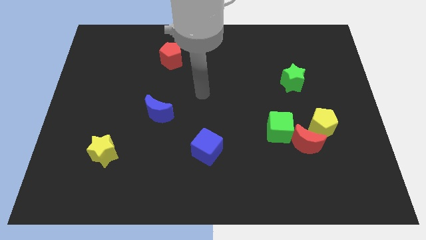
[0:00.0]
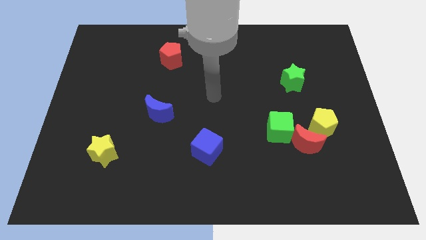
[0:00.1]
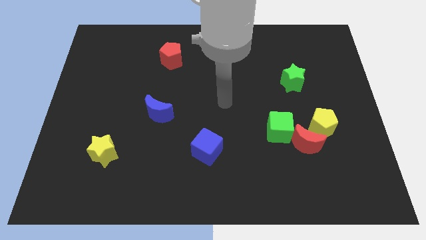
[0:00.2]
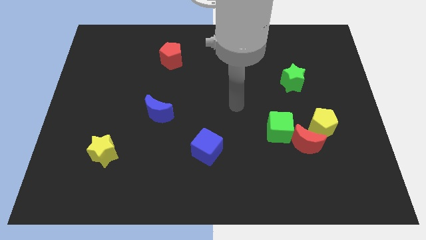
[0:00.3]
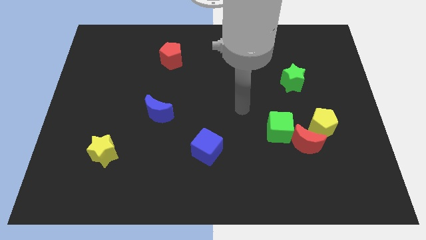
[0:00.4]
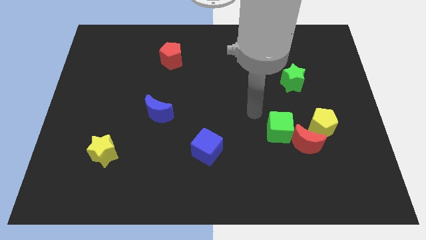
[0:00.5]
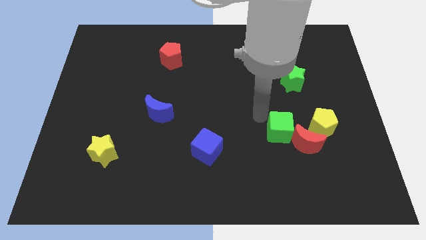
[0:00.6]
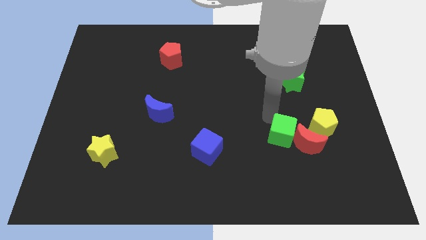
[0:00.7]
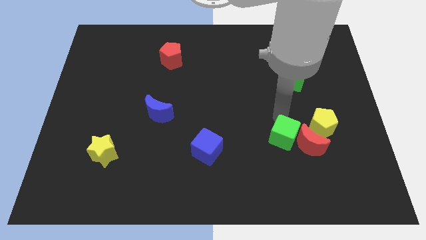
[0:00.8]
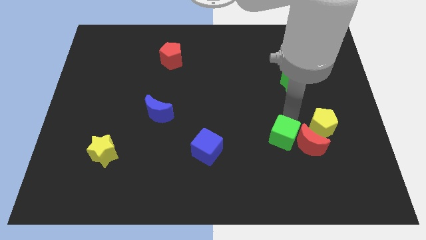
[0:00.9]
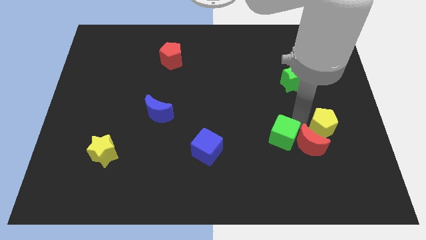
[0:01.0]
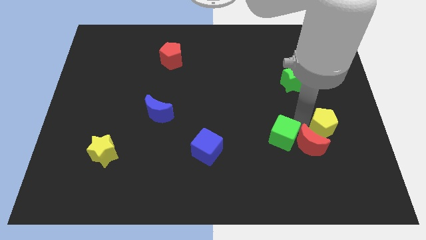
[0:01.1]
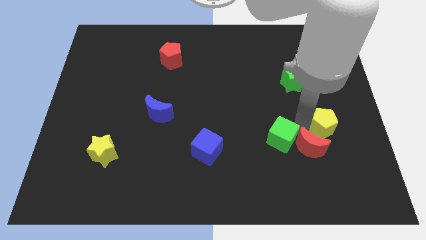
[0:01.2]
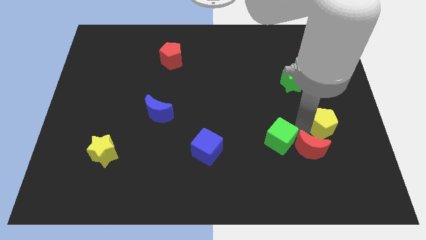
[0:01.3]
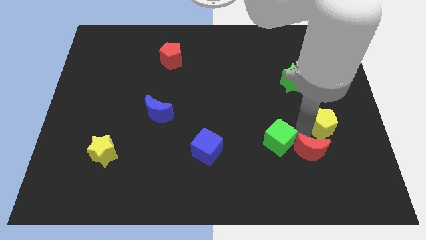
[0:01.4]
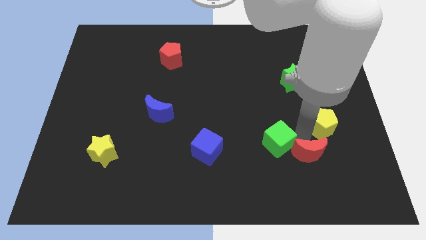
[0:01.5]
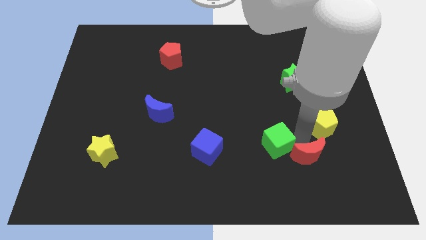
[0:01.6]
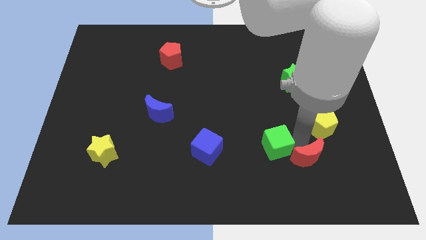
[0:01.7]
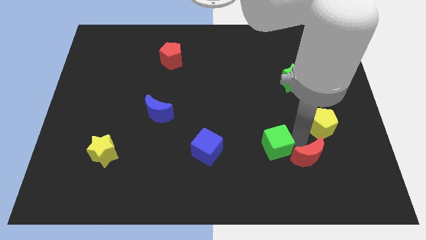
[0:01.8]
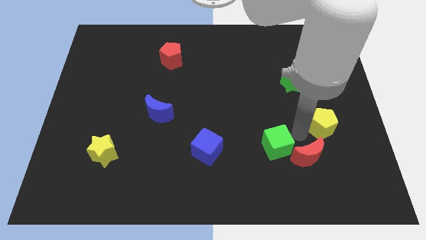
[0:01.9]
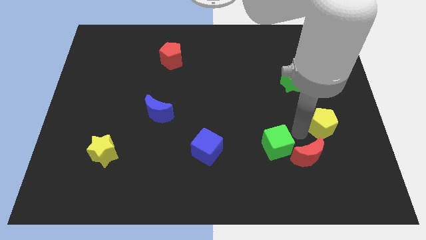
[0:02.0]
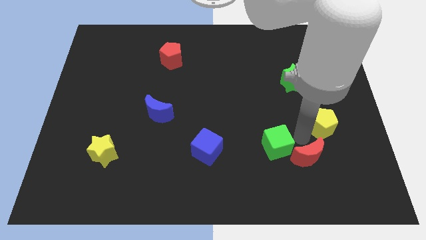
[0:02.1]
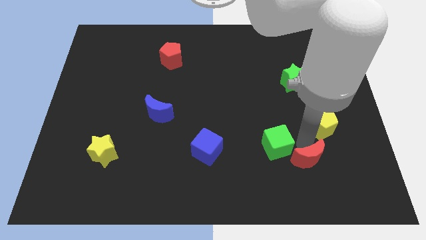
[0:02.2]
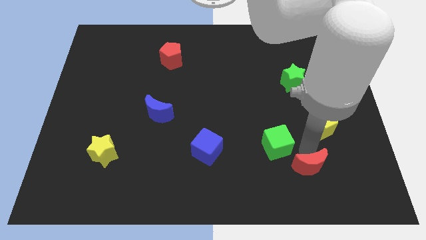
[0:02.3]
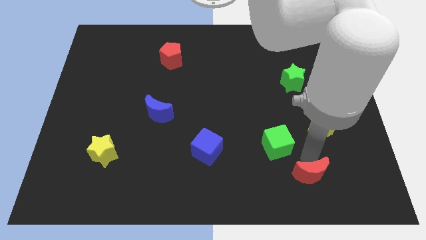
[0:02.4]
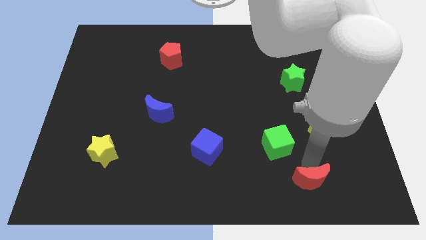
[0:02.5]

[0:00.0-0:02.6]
separate the red moon from the yellow pentagon and green cube

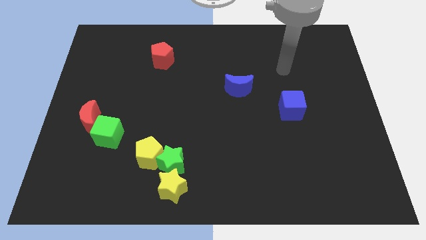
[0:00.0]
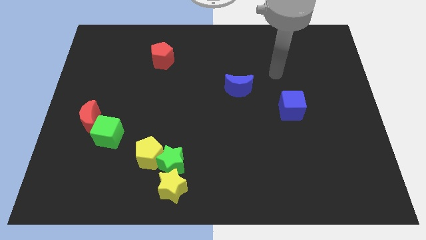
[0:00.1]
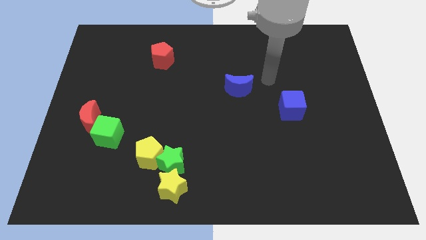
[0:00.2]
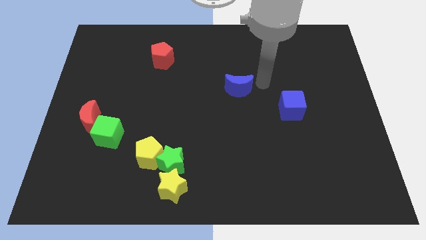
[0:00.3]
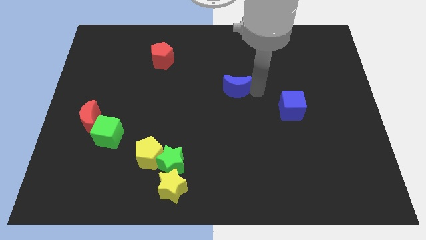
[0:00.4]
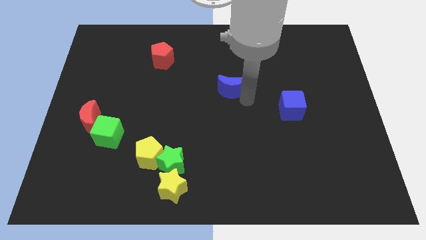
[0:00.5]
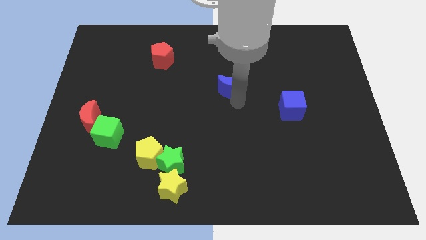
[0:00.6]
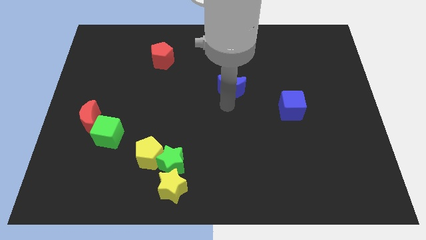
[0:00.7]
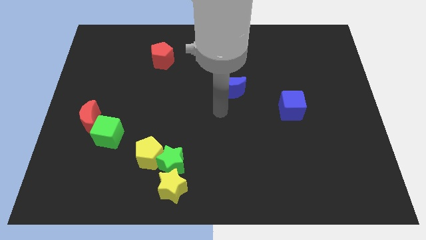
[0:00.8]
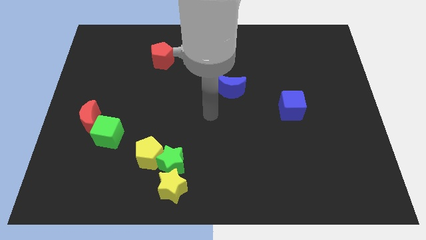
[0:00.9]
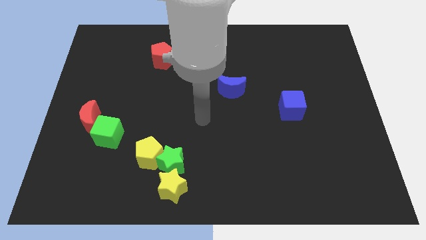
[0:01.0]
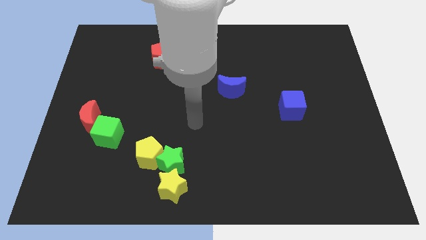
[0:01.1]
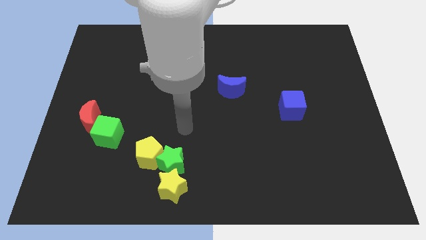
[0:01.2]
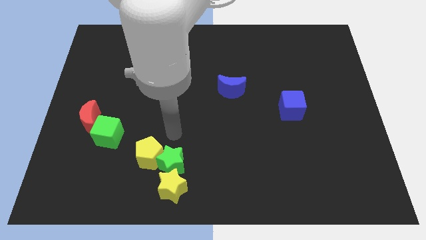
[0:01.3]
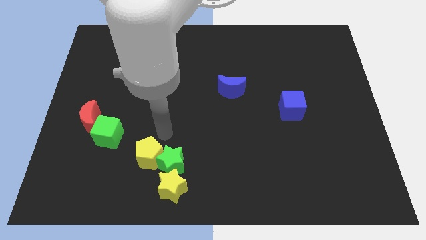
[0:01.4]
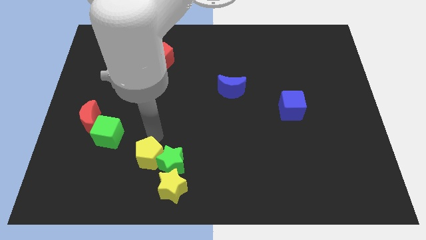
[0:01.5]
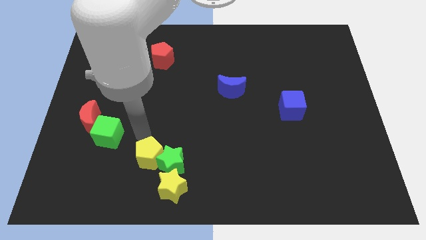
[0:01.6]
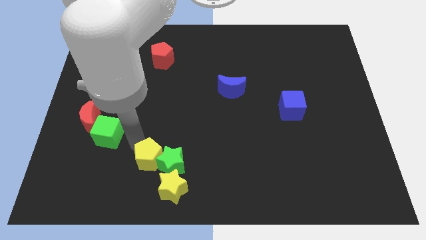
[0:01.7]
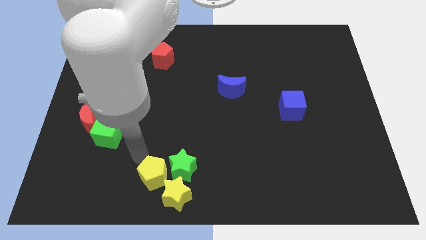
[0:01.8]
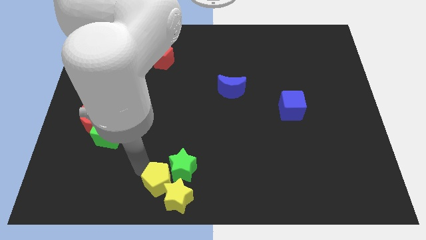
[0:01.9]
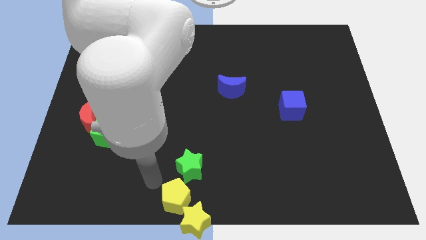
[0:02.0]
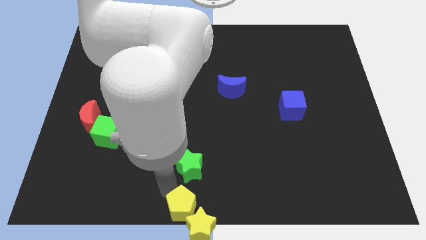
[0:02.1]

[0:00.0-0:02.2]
separate the green star from the yellow pentagon and yellow star

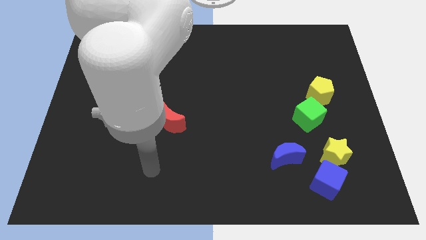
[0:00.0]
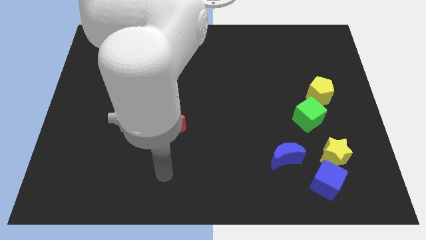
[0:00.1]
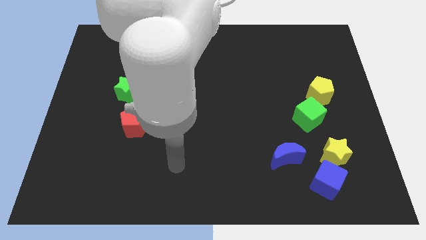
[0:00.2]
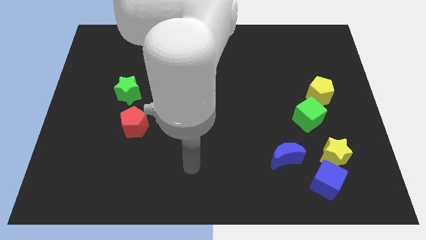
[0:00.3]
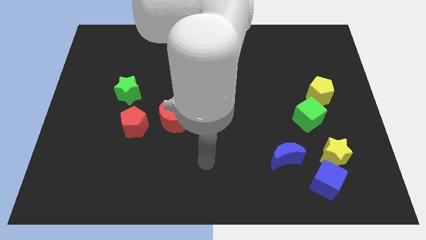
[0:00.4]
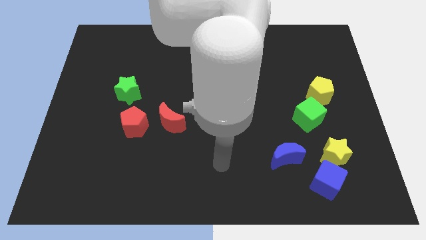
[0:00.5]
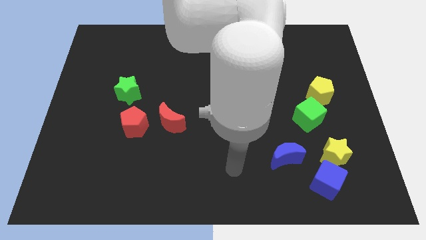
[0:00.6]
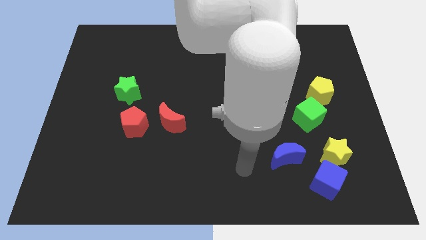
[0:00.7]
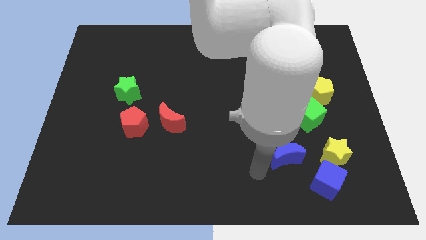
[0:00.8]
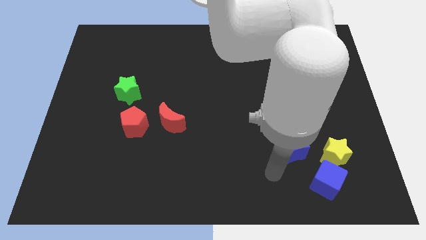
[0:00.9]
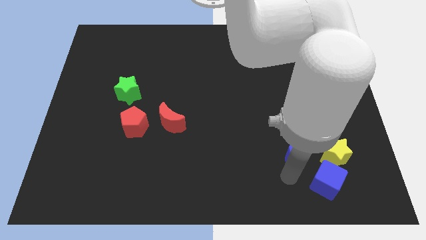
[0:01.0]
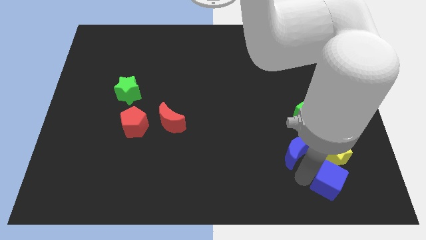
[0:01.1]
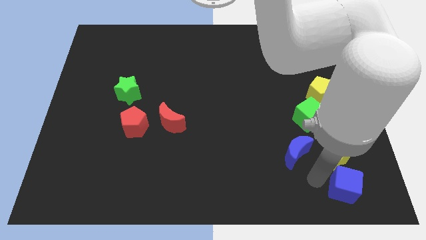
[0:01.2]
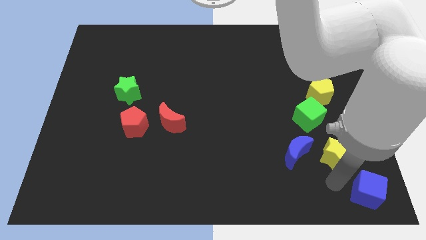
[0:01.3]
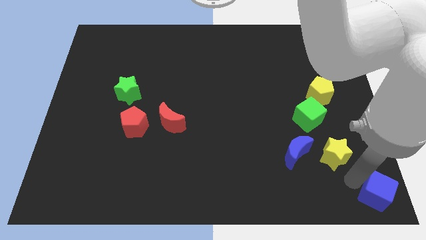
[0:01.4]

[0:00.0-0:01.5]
pull the yellow star apart from the blue cube

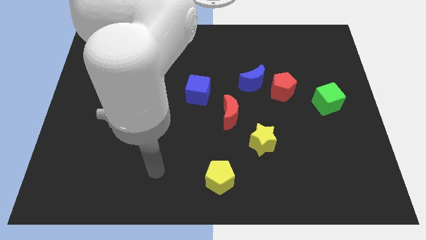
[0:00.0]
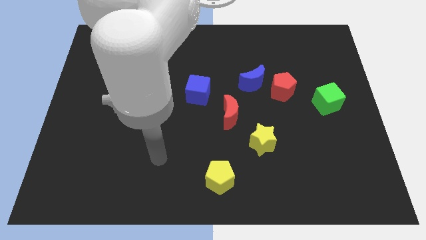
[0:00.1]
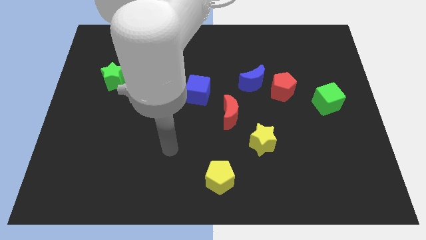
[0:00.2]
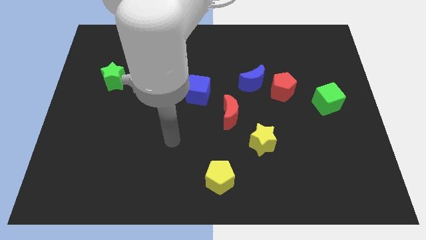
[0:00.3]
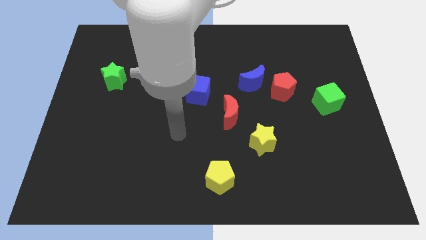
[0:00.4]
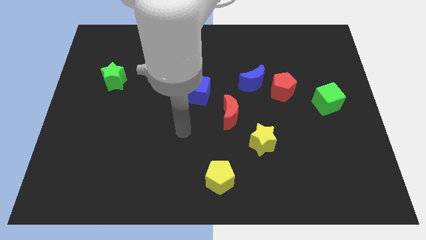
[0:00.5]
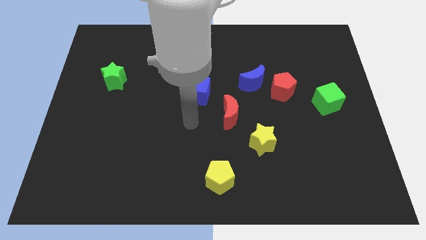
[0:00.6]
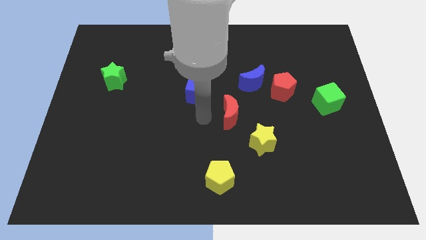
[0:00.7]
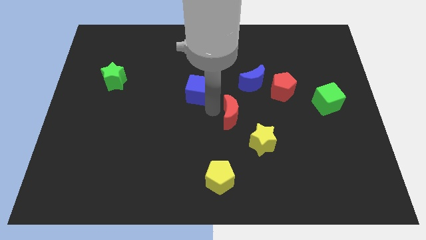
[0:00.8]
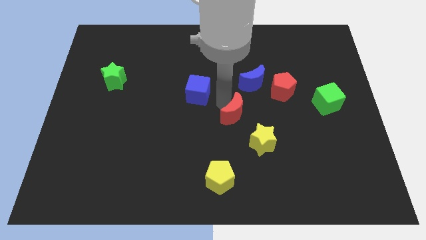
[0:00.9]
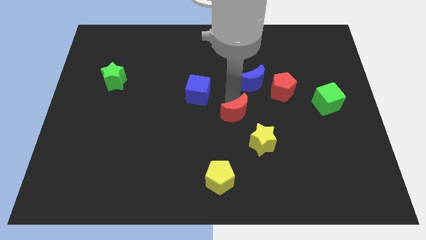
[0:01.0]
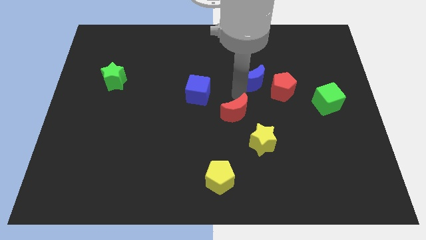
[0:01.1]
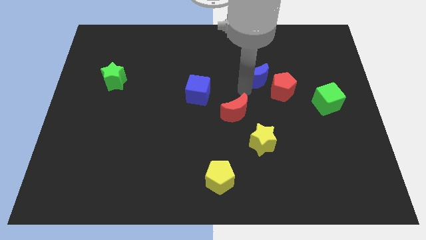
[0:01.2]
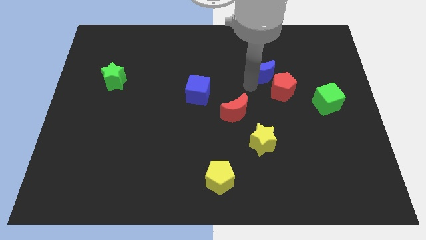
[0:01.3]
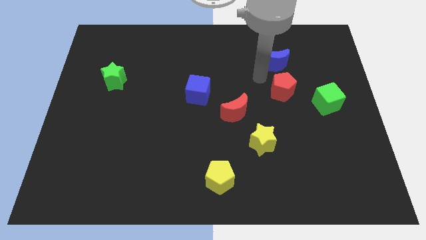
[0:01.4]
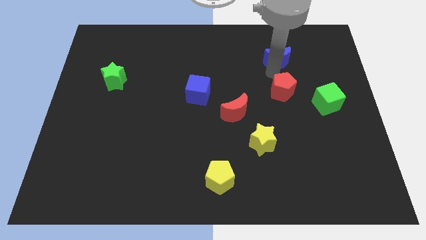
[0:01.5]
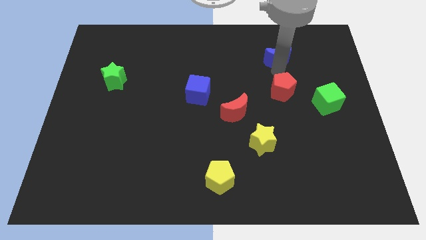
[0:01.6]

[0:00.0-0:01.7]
move the red pentagon away from the blue moon

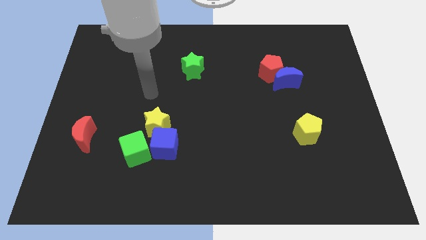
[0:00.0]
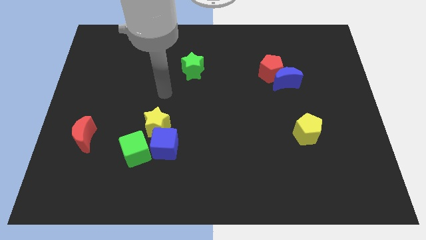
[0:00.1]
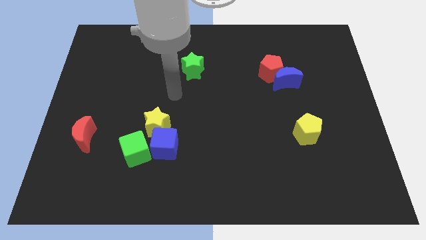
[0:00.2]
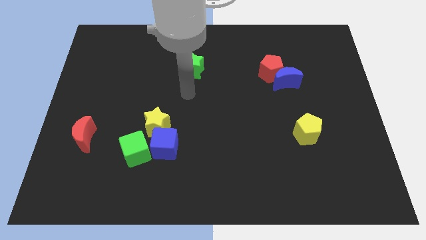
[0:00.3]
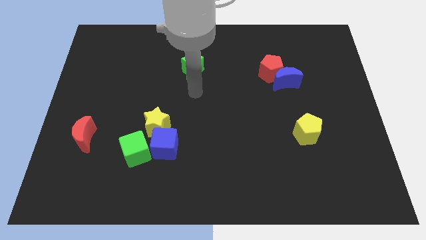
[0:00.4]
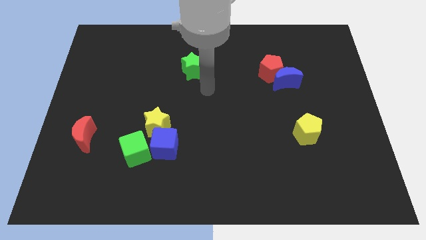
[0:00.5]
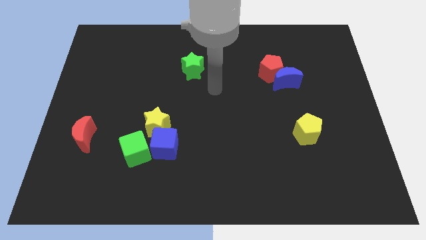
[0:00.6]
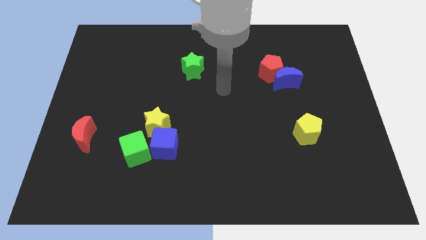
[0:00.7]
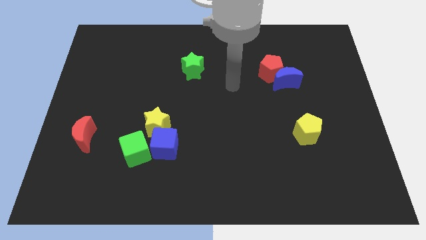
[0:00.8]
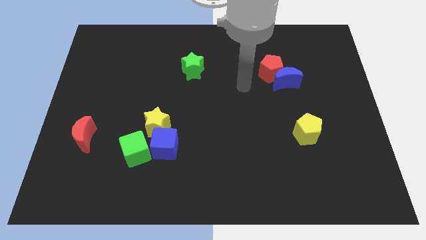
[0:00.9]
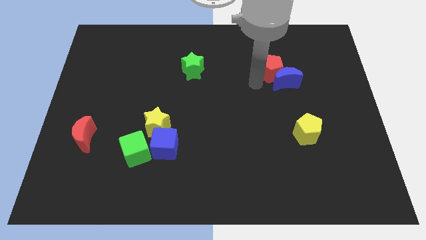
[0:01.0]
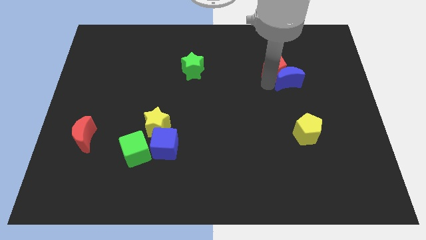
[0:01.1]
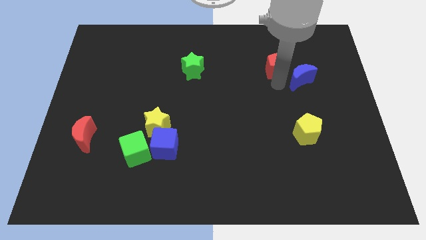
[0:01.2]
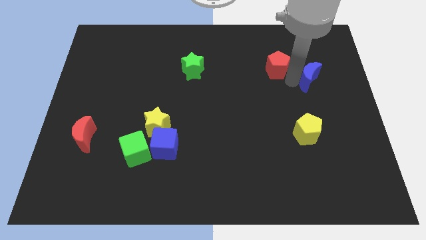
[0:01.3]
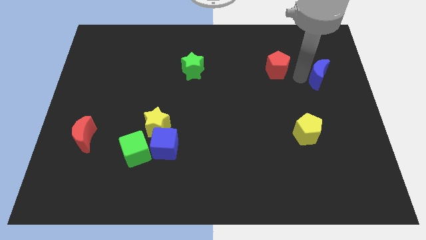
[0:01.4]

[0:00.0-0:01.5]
separate the red pentagon from the blue moon
